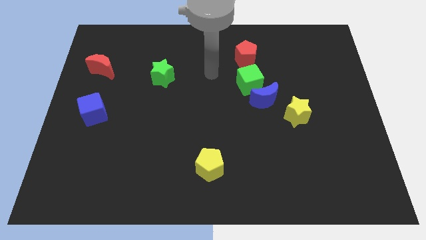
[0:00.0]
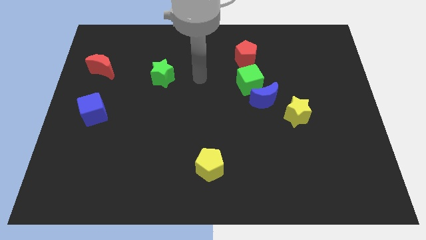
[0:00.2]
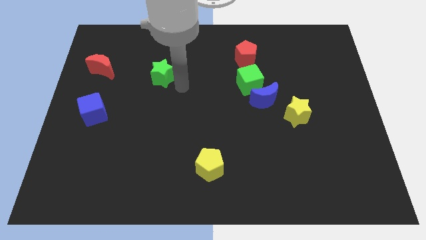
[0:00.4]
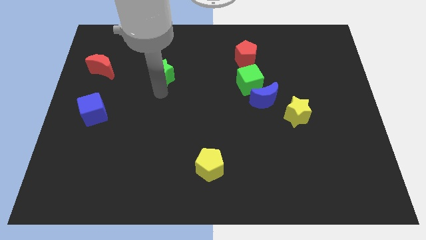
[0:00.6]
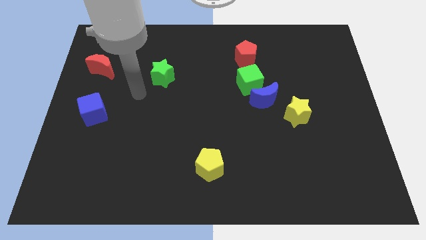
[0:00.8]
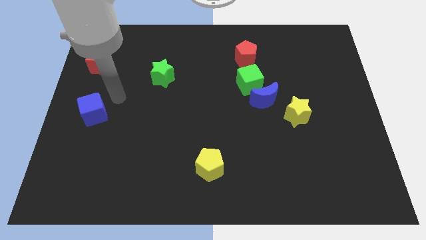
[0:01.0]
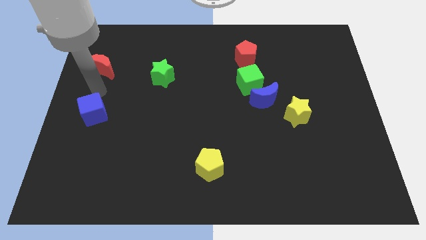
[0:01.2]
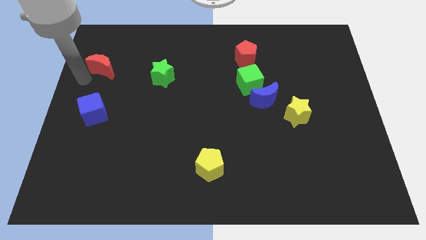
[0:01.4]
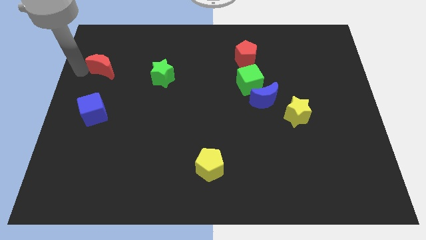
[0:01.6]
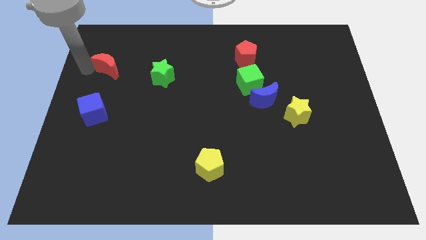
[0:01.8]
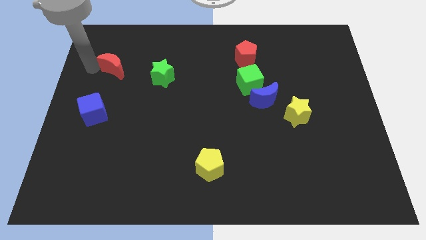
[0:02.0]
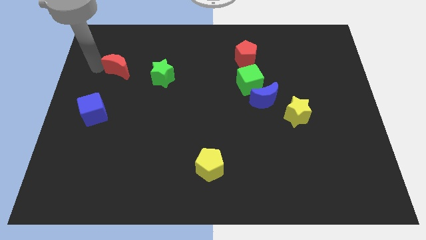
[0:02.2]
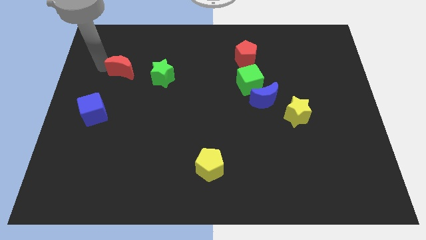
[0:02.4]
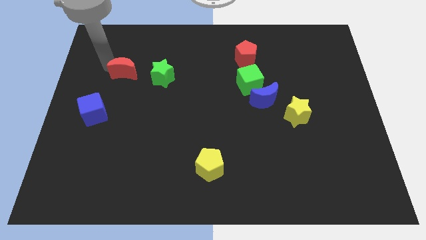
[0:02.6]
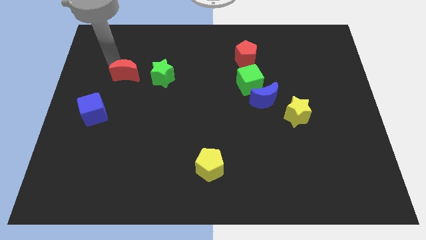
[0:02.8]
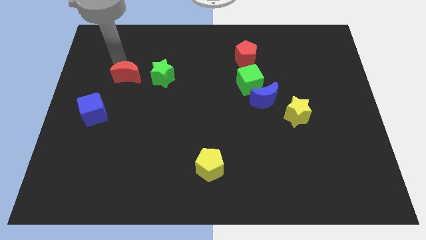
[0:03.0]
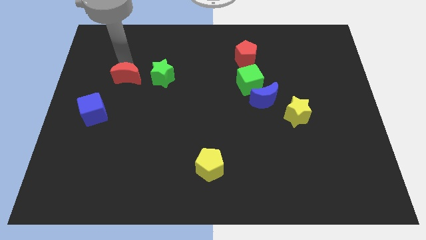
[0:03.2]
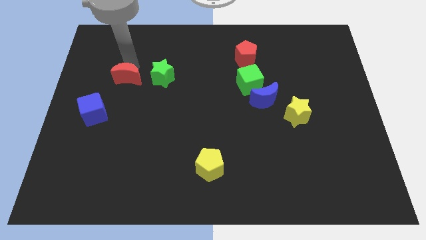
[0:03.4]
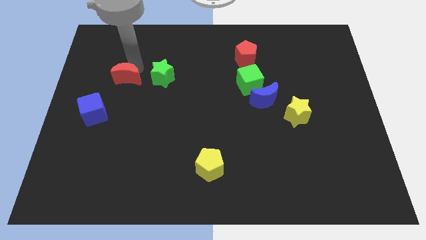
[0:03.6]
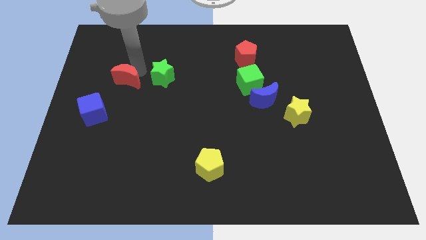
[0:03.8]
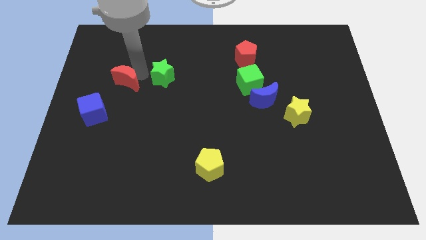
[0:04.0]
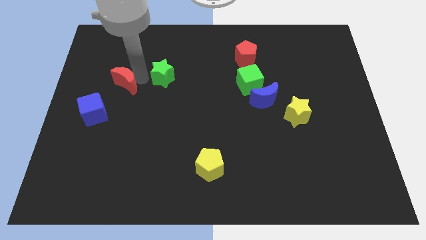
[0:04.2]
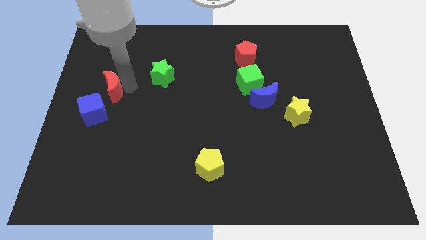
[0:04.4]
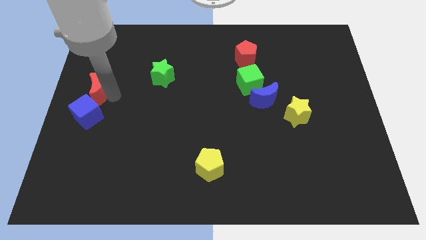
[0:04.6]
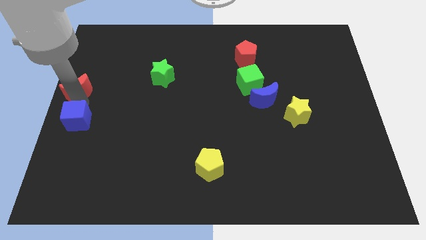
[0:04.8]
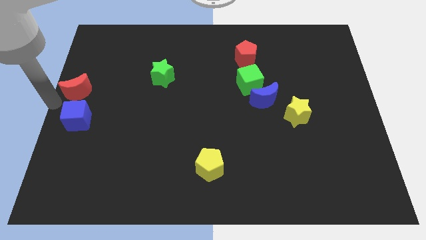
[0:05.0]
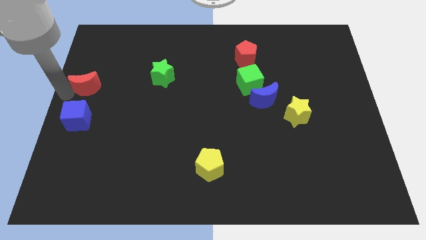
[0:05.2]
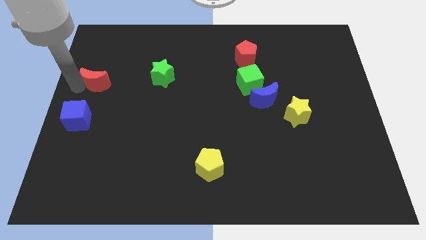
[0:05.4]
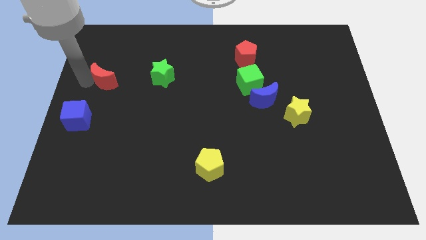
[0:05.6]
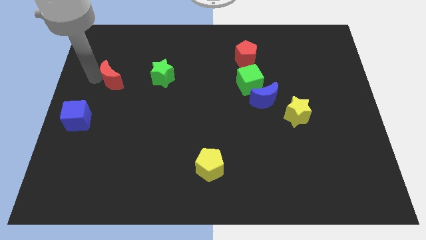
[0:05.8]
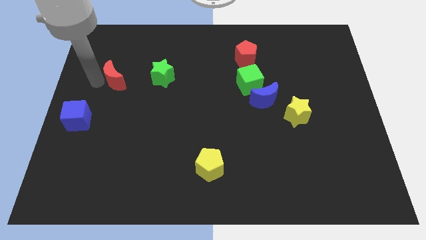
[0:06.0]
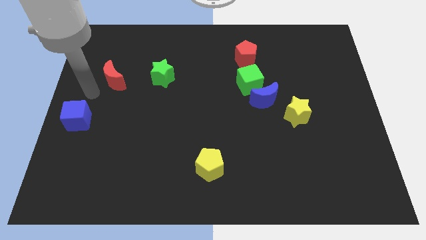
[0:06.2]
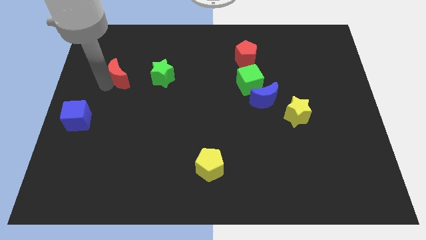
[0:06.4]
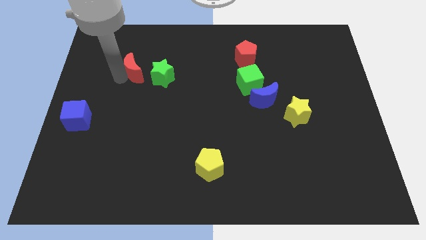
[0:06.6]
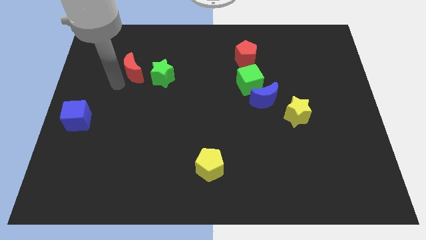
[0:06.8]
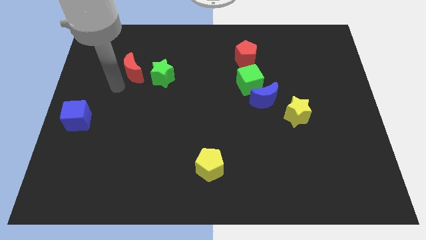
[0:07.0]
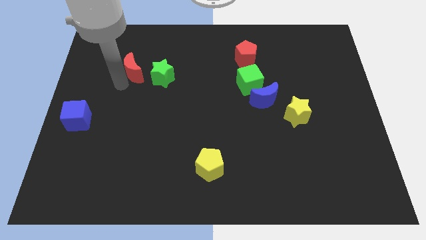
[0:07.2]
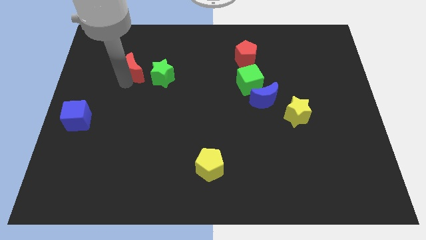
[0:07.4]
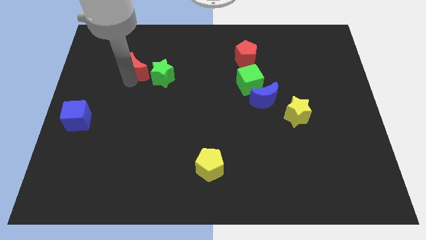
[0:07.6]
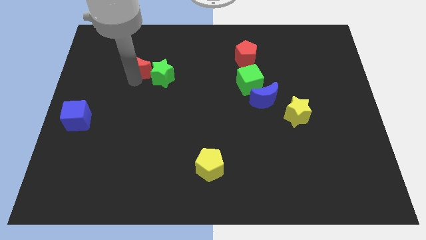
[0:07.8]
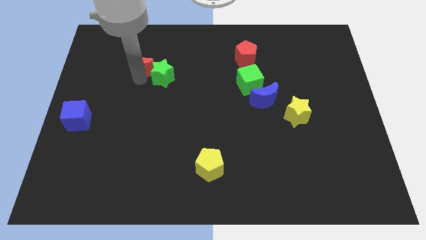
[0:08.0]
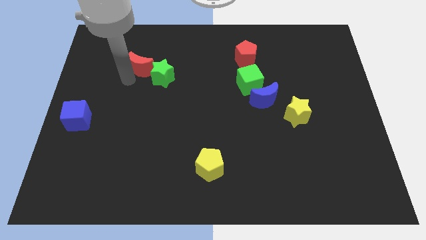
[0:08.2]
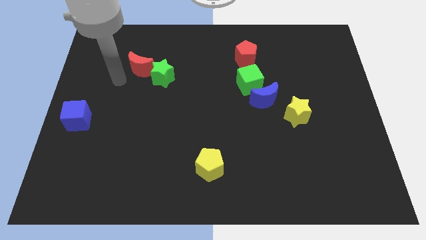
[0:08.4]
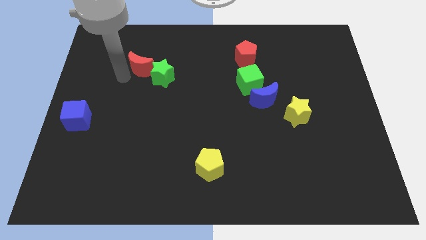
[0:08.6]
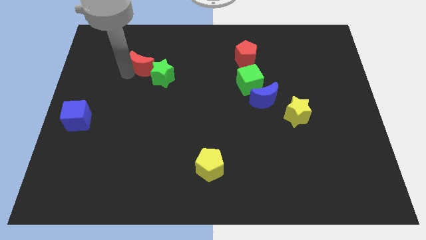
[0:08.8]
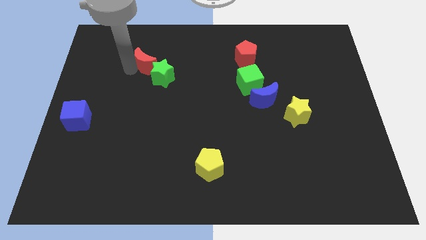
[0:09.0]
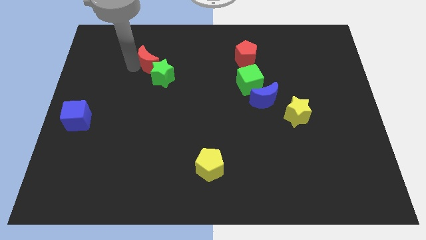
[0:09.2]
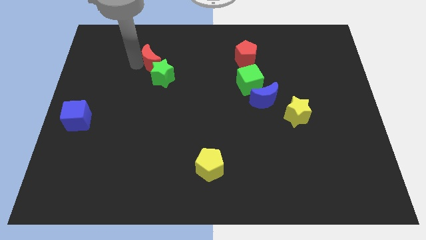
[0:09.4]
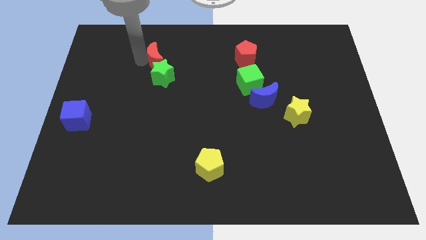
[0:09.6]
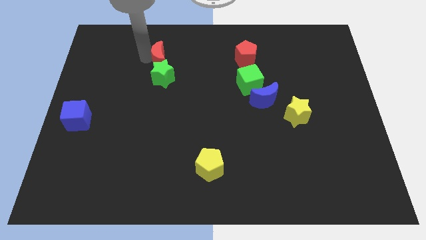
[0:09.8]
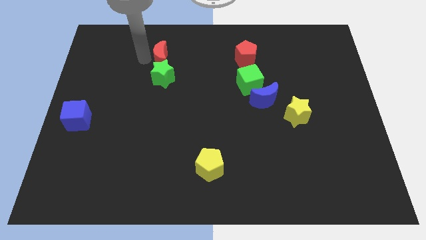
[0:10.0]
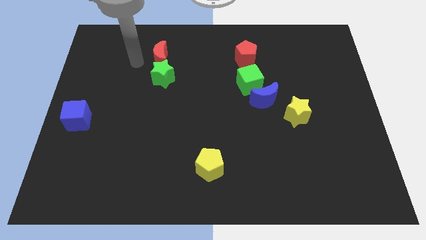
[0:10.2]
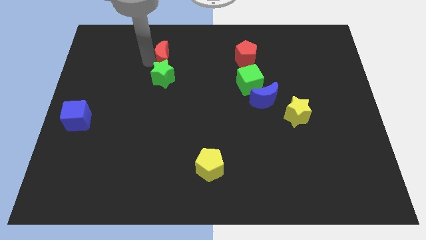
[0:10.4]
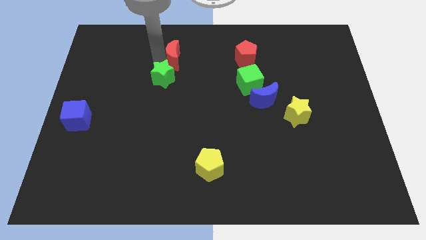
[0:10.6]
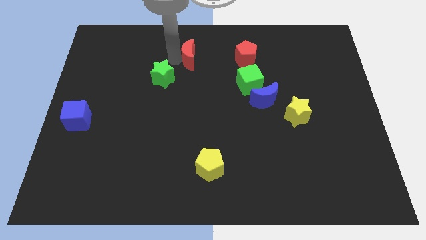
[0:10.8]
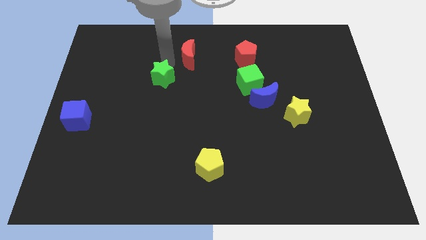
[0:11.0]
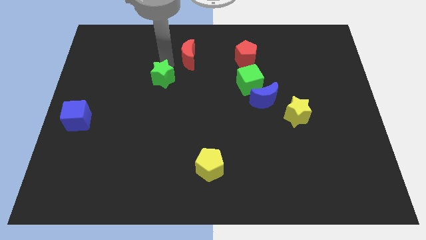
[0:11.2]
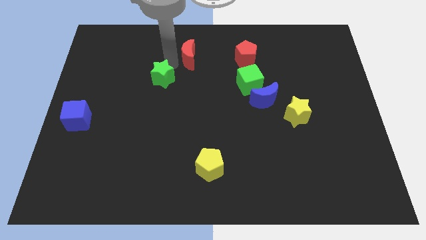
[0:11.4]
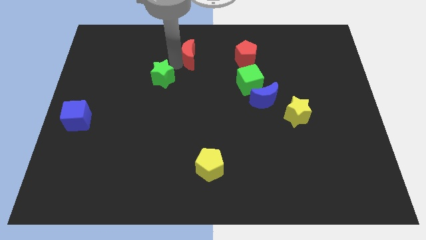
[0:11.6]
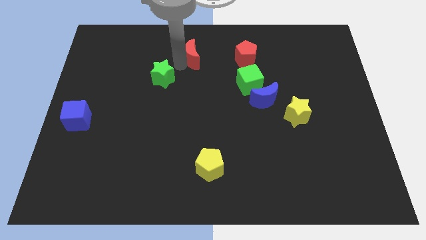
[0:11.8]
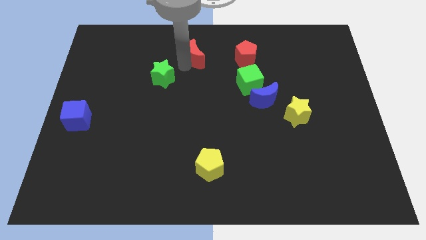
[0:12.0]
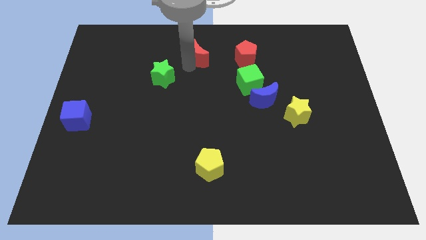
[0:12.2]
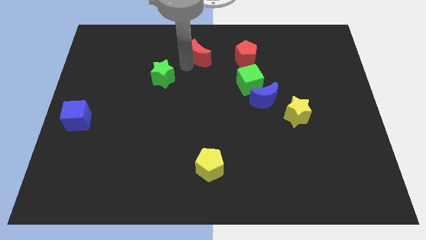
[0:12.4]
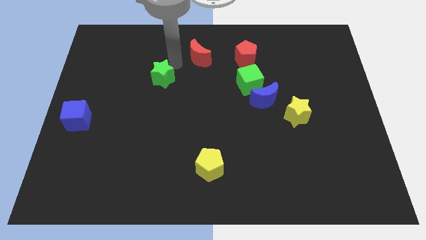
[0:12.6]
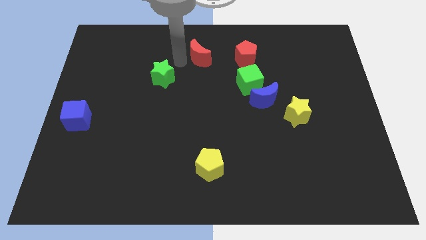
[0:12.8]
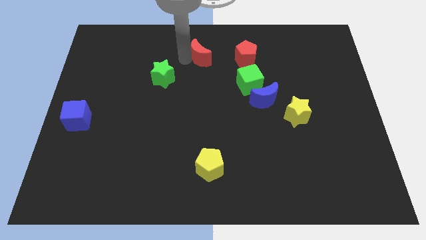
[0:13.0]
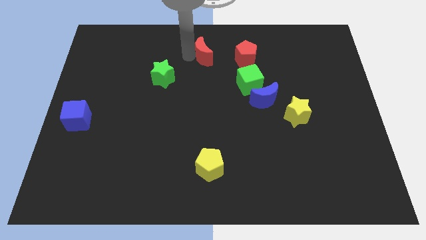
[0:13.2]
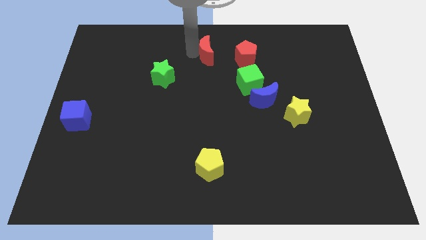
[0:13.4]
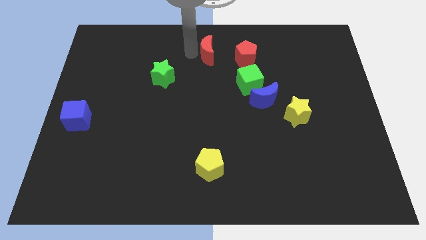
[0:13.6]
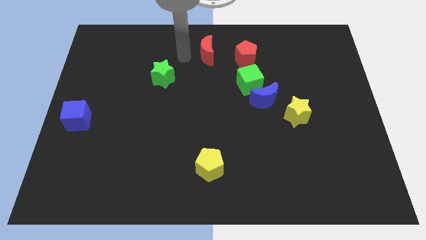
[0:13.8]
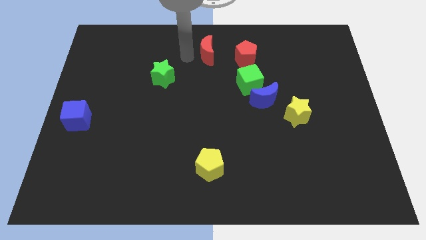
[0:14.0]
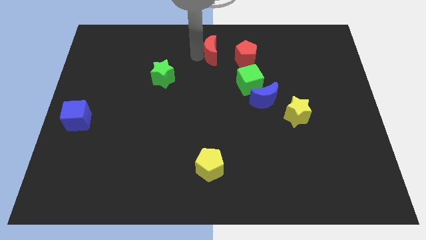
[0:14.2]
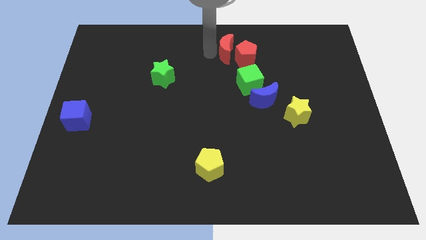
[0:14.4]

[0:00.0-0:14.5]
move the red moon next to the red pentagon
